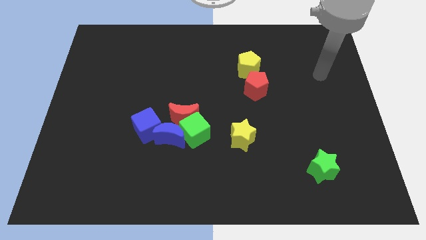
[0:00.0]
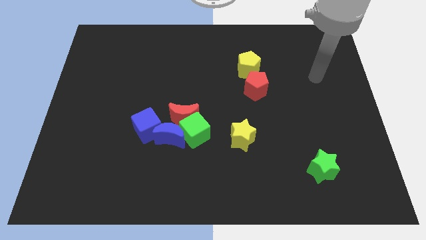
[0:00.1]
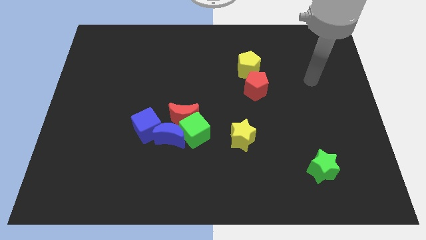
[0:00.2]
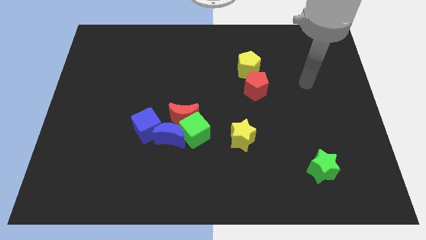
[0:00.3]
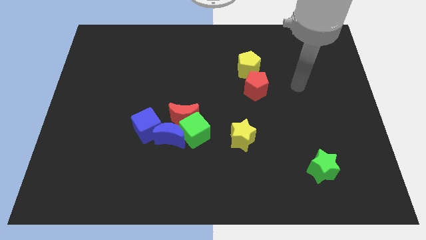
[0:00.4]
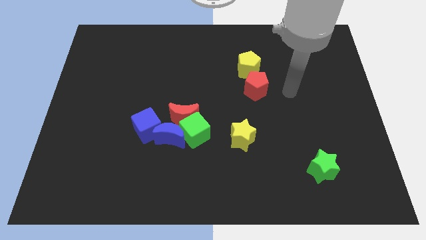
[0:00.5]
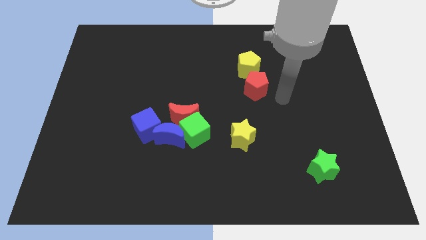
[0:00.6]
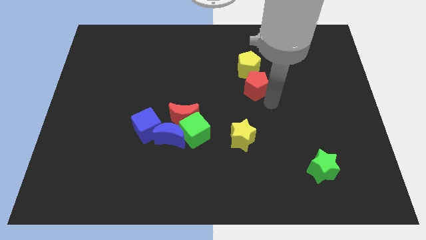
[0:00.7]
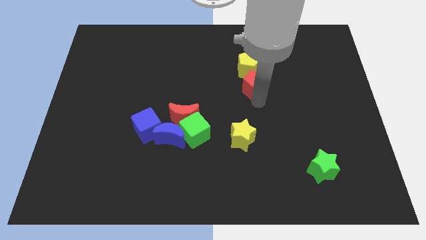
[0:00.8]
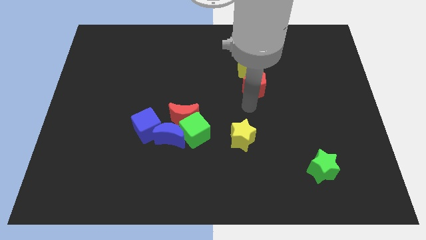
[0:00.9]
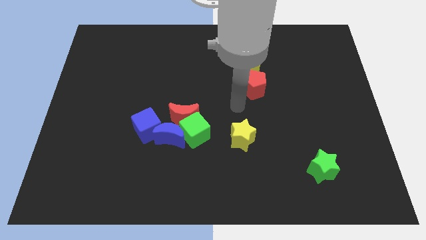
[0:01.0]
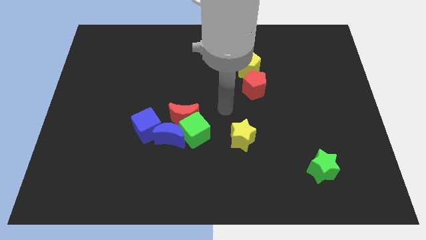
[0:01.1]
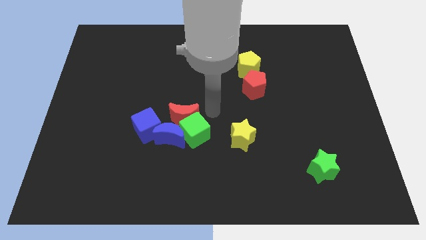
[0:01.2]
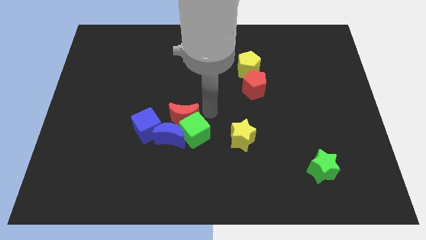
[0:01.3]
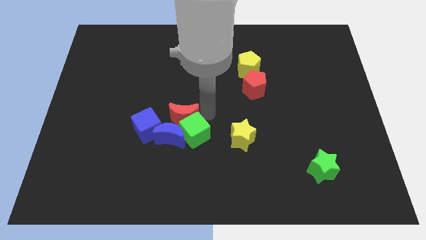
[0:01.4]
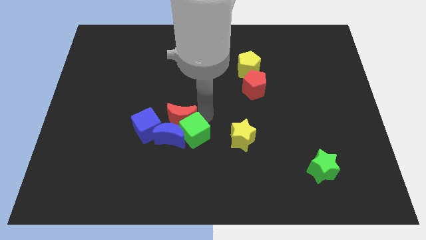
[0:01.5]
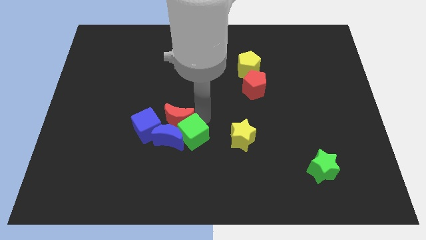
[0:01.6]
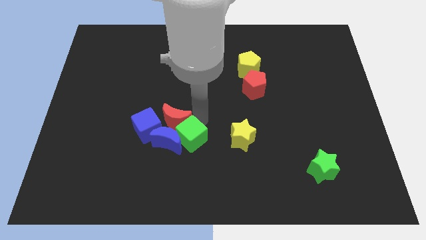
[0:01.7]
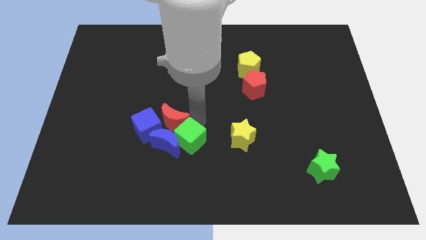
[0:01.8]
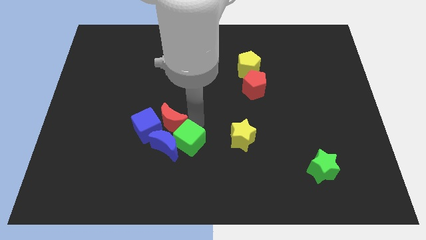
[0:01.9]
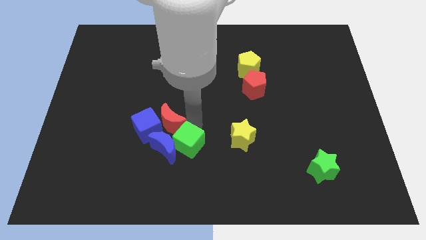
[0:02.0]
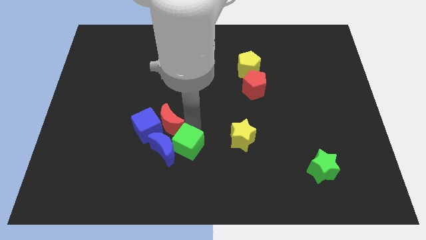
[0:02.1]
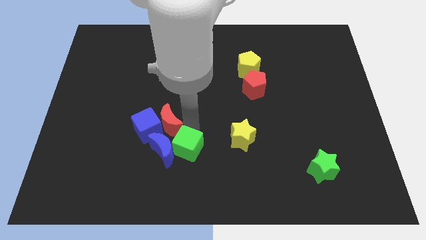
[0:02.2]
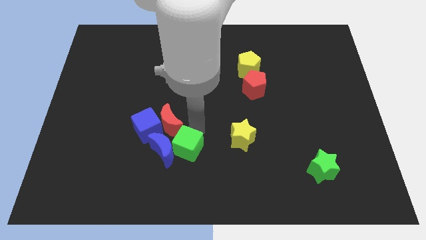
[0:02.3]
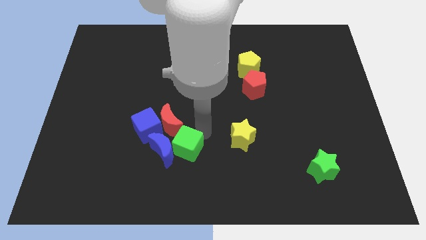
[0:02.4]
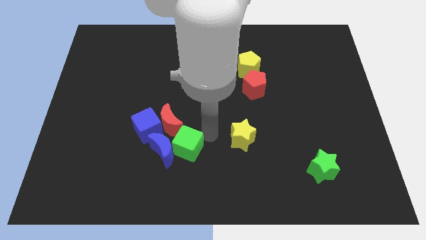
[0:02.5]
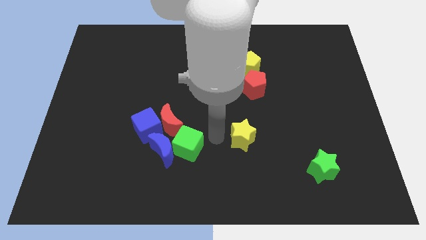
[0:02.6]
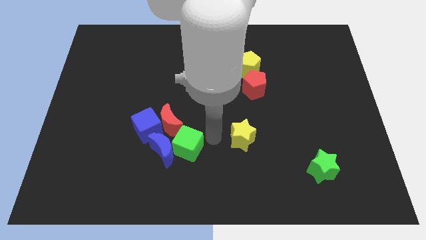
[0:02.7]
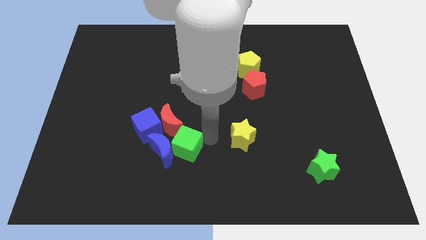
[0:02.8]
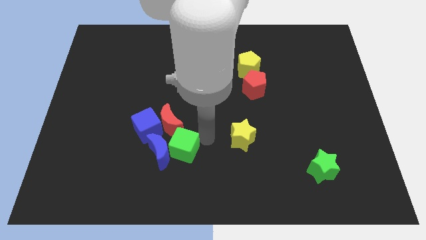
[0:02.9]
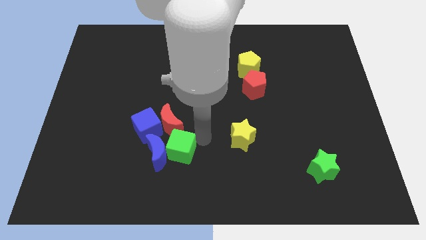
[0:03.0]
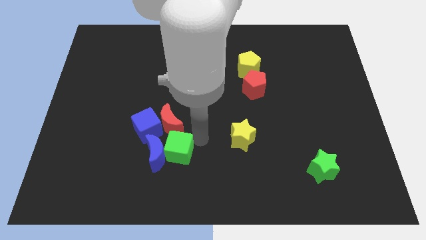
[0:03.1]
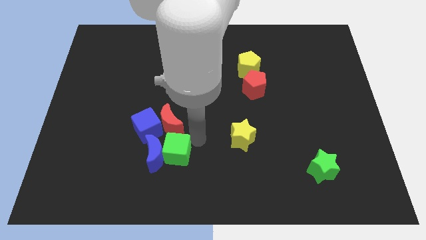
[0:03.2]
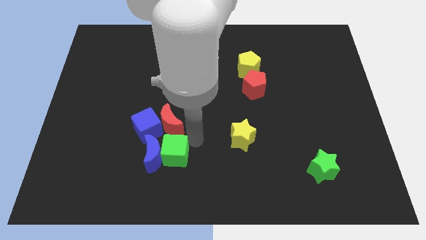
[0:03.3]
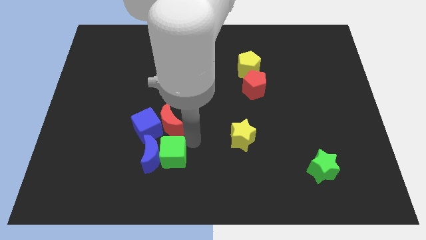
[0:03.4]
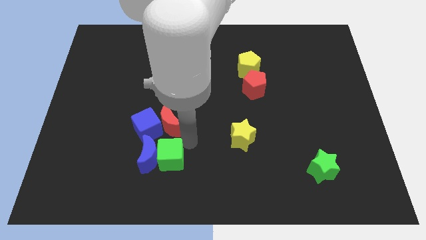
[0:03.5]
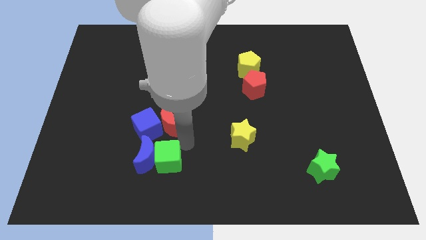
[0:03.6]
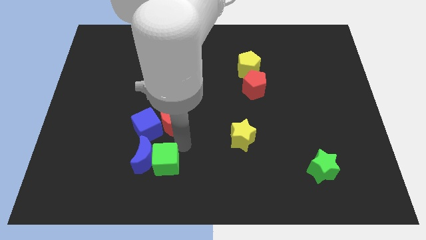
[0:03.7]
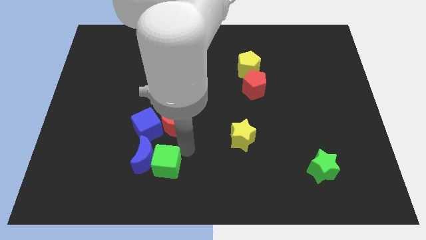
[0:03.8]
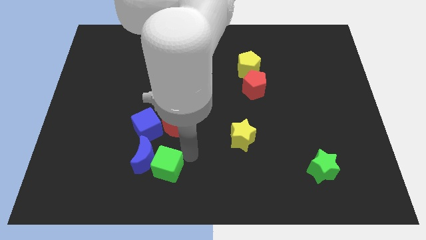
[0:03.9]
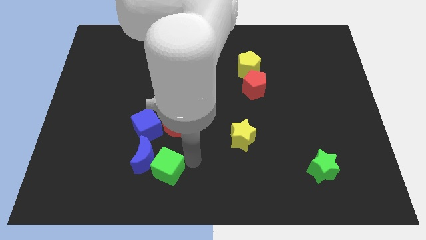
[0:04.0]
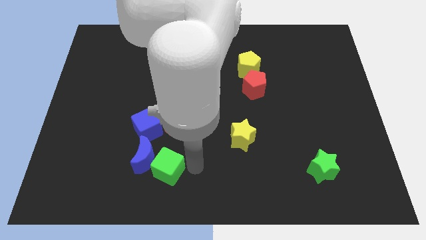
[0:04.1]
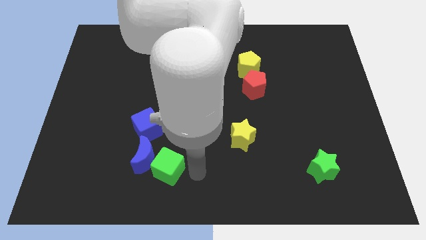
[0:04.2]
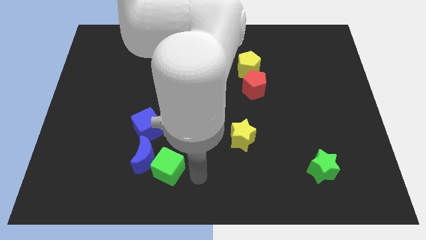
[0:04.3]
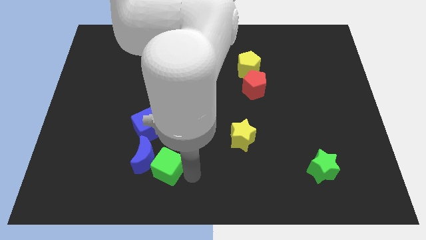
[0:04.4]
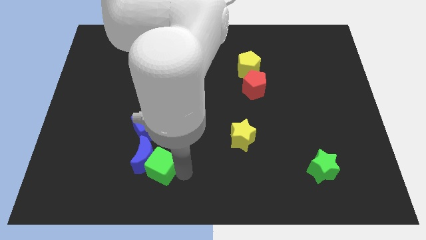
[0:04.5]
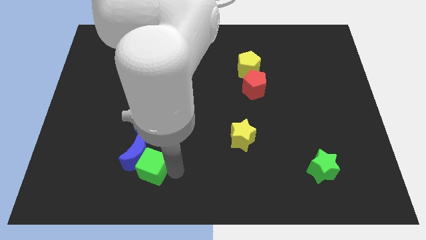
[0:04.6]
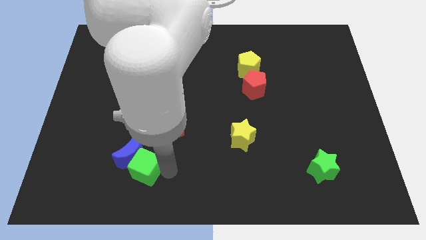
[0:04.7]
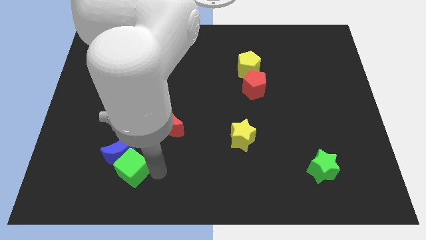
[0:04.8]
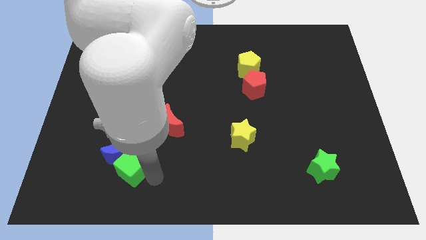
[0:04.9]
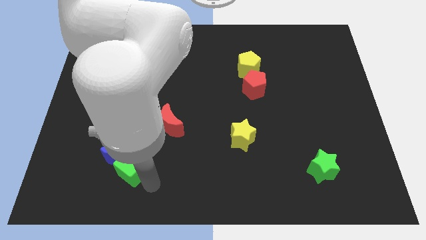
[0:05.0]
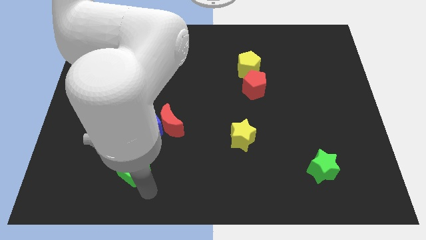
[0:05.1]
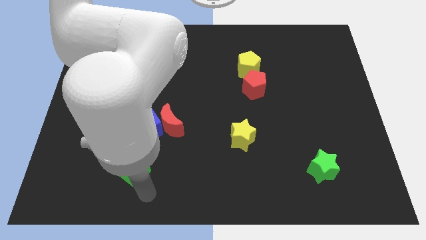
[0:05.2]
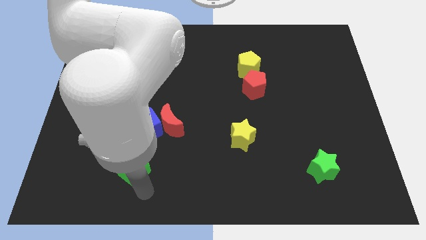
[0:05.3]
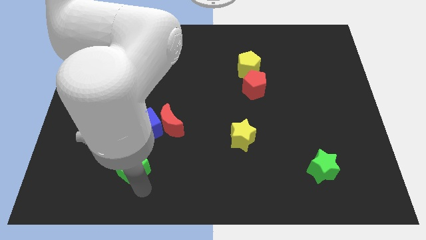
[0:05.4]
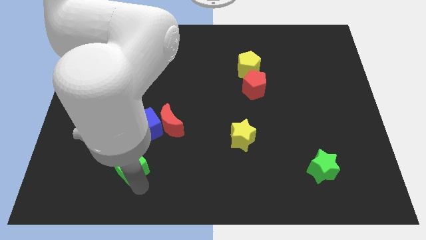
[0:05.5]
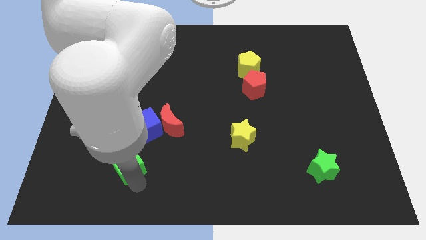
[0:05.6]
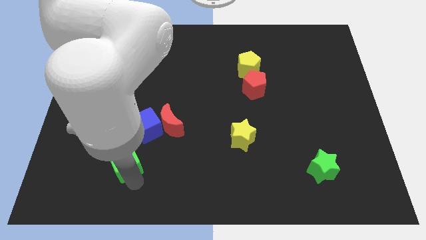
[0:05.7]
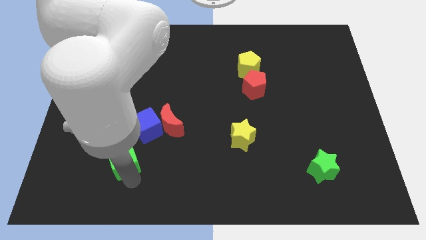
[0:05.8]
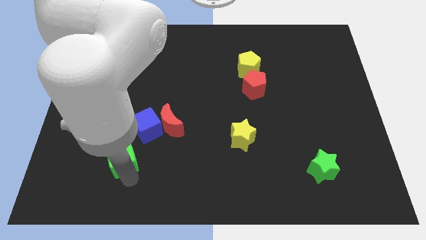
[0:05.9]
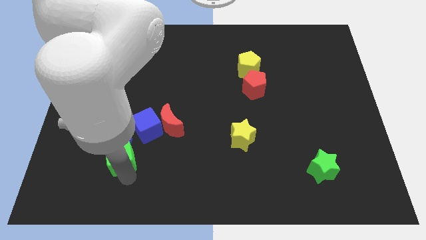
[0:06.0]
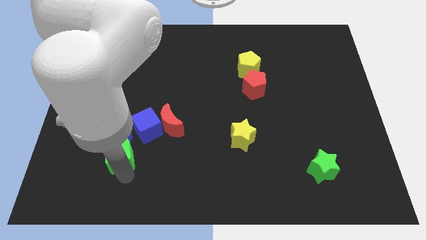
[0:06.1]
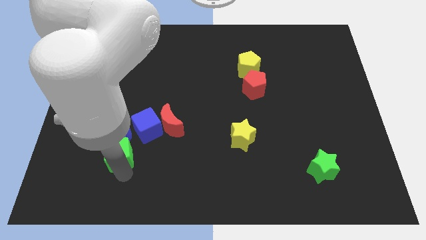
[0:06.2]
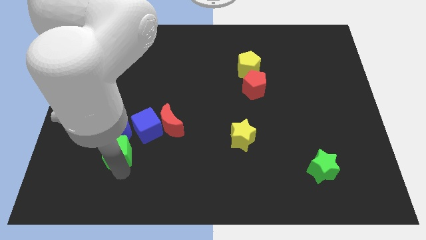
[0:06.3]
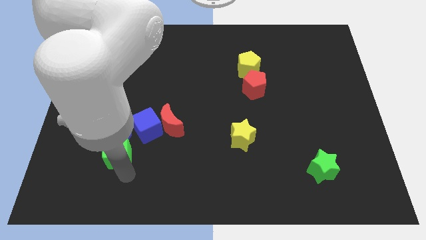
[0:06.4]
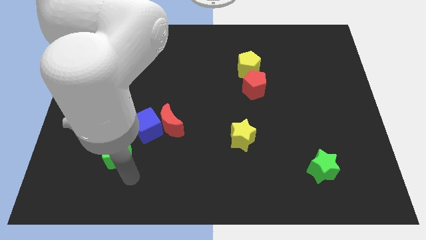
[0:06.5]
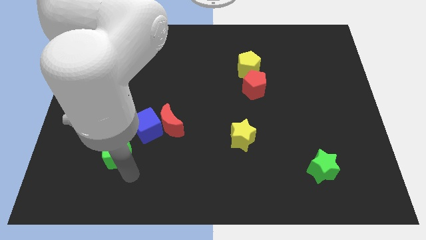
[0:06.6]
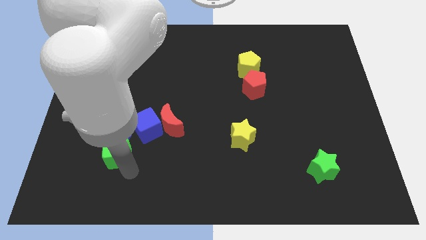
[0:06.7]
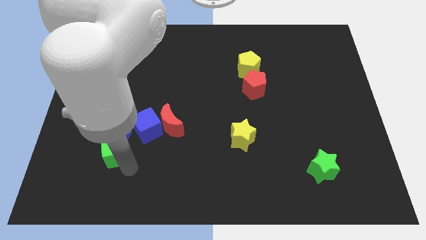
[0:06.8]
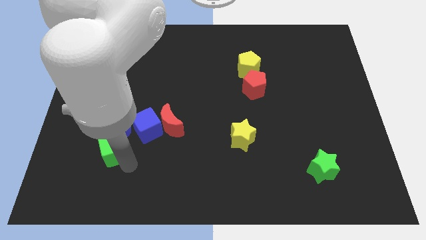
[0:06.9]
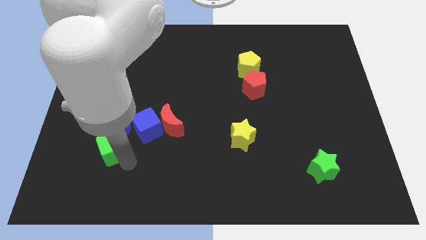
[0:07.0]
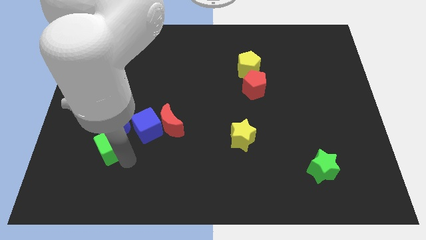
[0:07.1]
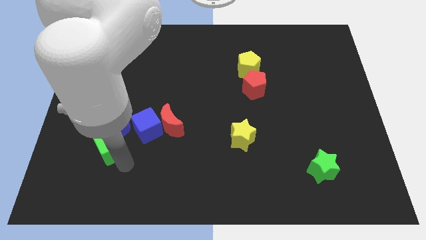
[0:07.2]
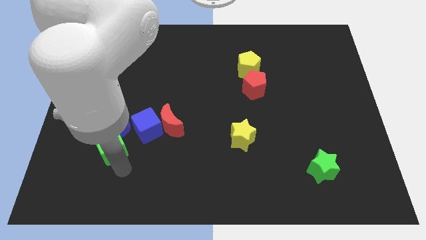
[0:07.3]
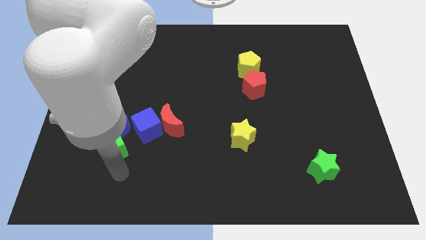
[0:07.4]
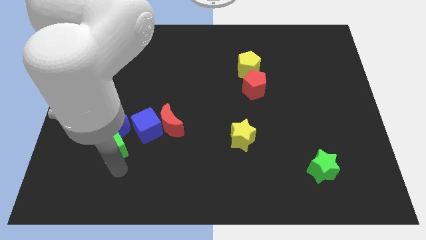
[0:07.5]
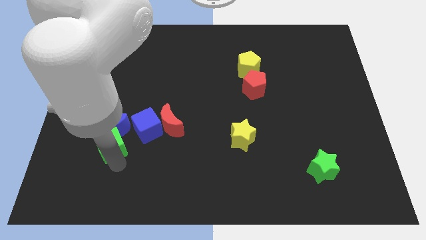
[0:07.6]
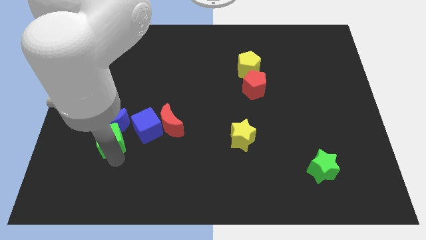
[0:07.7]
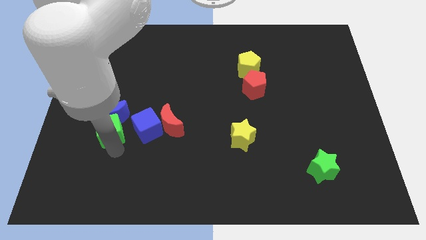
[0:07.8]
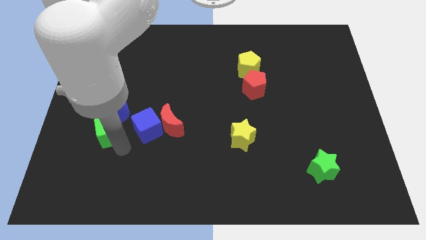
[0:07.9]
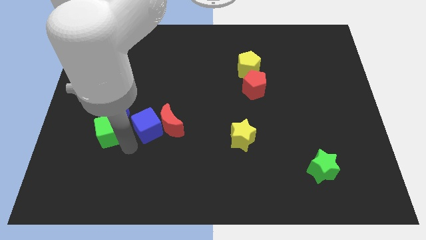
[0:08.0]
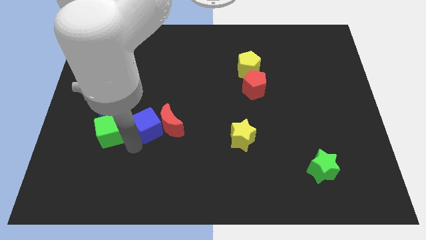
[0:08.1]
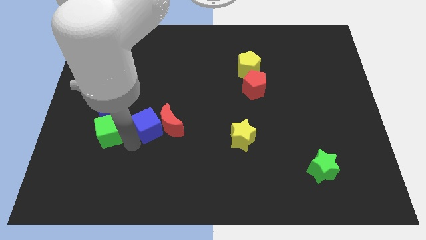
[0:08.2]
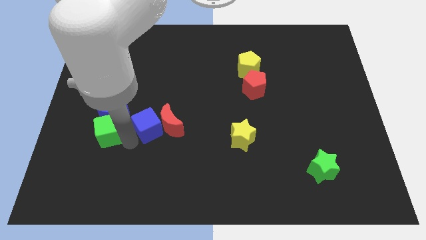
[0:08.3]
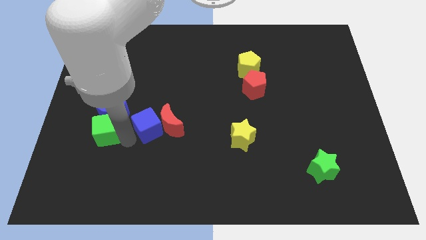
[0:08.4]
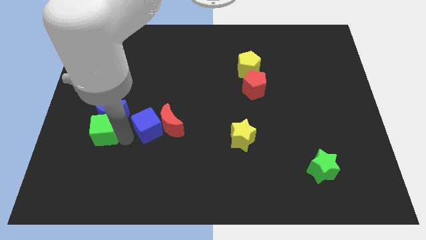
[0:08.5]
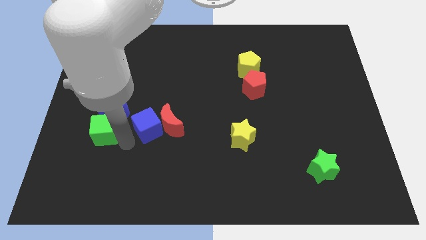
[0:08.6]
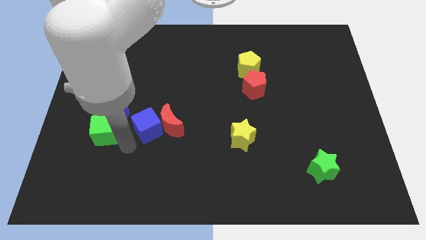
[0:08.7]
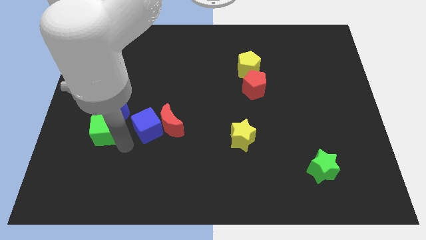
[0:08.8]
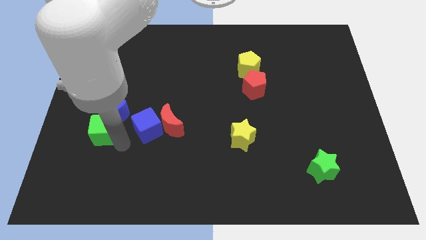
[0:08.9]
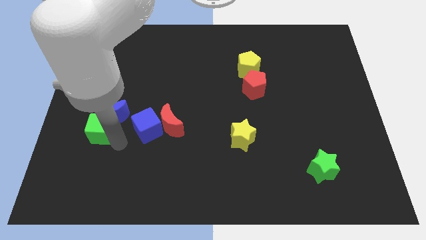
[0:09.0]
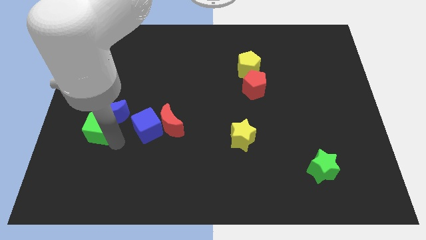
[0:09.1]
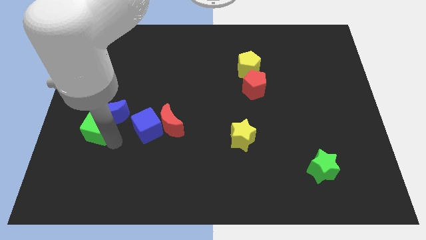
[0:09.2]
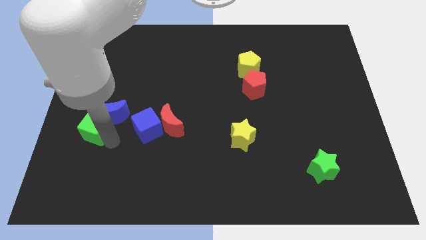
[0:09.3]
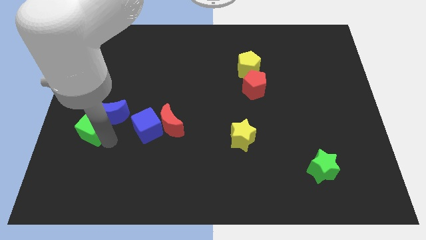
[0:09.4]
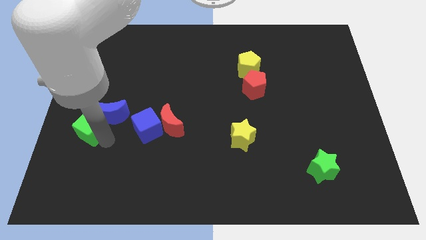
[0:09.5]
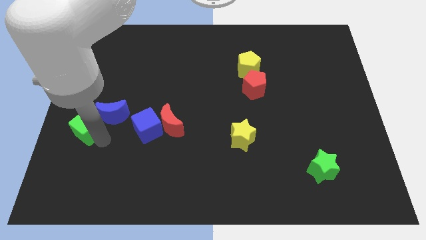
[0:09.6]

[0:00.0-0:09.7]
put the green cube to the left side of the board
